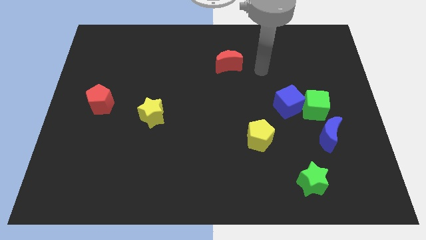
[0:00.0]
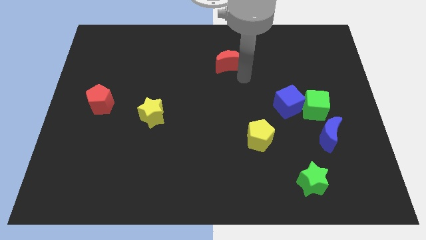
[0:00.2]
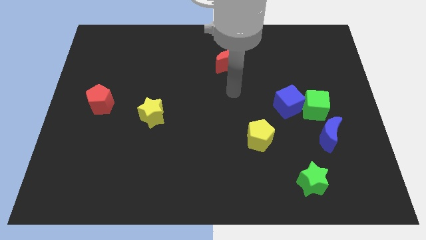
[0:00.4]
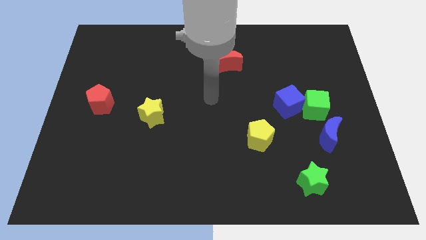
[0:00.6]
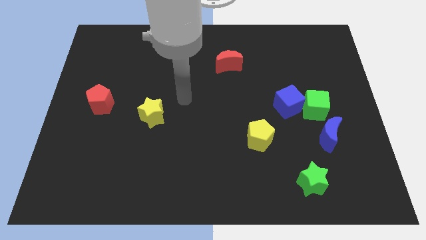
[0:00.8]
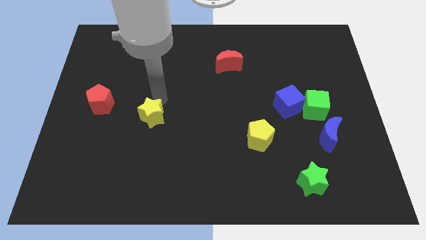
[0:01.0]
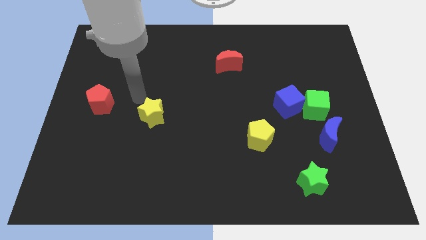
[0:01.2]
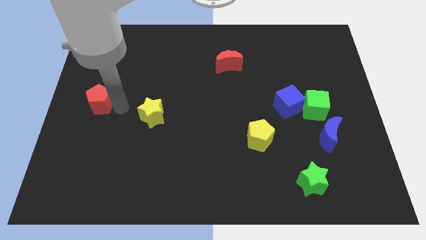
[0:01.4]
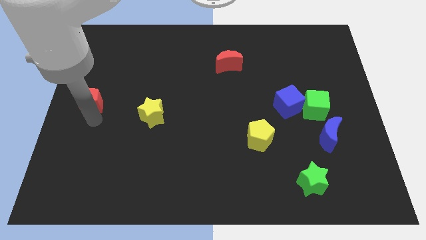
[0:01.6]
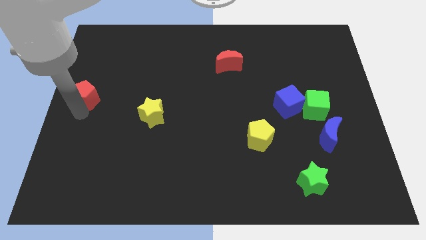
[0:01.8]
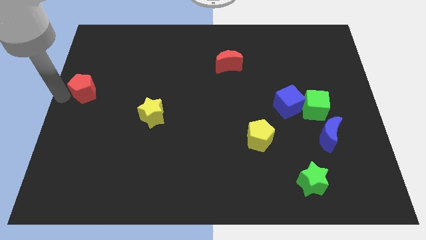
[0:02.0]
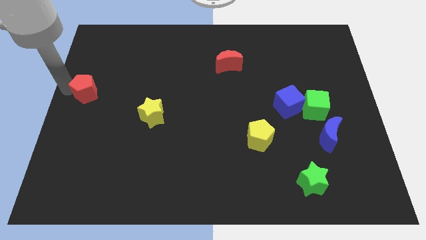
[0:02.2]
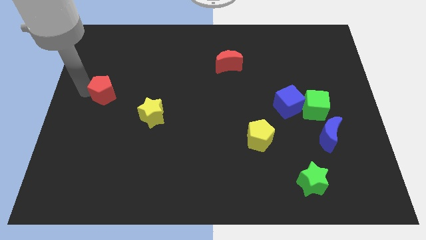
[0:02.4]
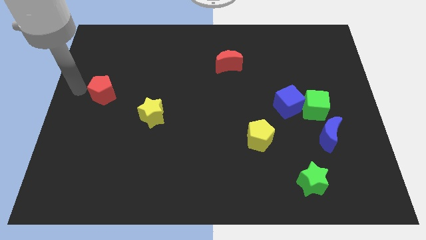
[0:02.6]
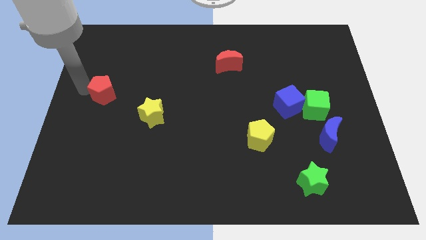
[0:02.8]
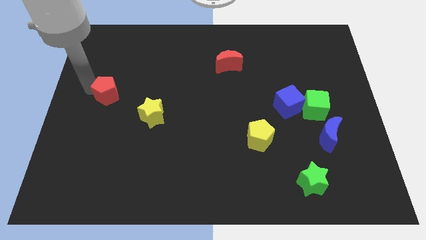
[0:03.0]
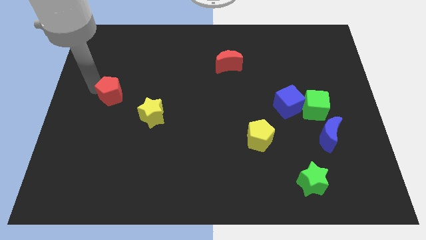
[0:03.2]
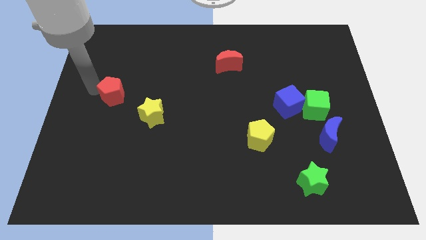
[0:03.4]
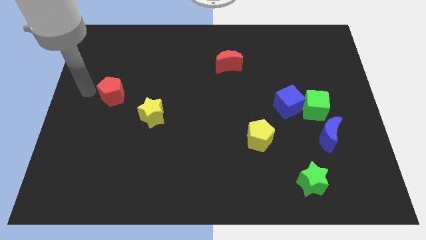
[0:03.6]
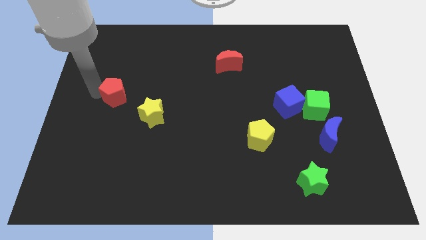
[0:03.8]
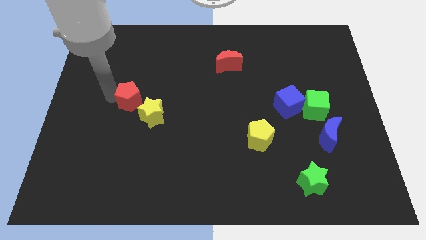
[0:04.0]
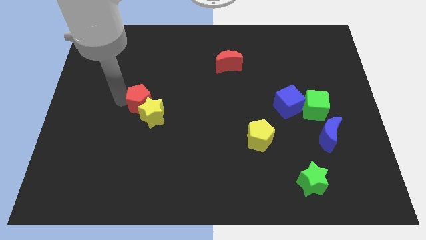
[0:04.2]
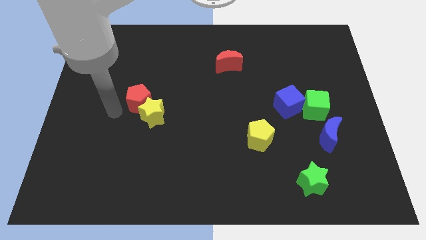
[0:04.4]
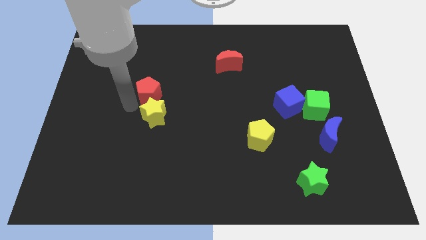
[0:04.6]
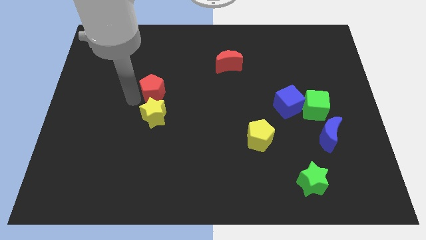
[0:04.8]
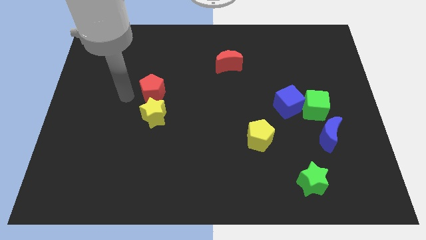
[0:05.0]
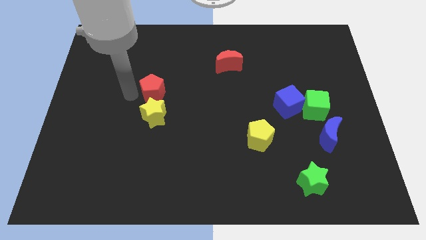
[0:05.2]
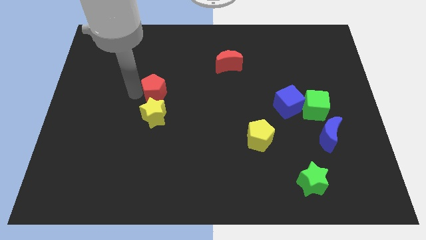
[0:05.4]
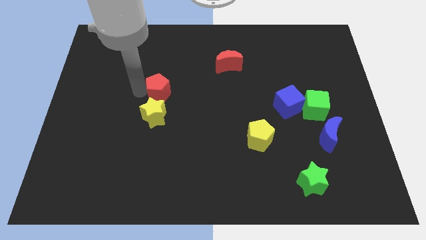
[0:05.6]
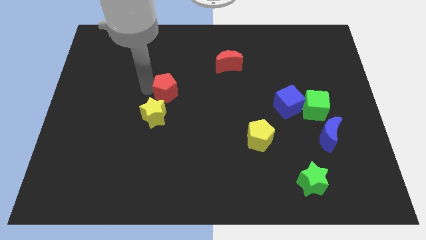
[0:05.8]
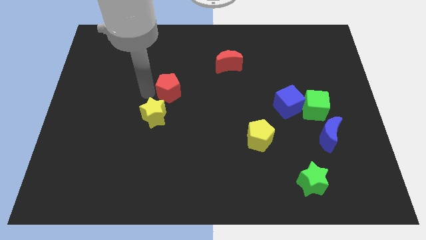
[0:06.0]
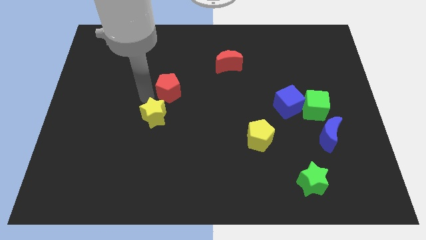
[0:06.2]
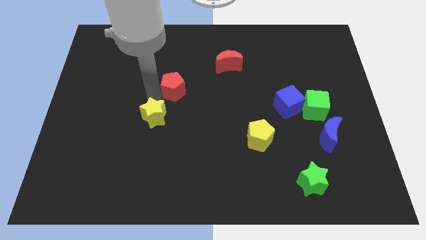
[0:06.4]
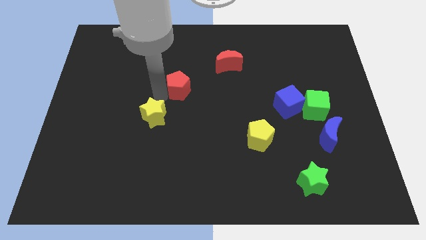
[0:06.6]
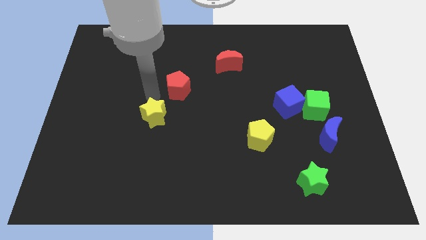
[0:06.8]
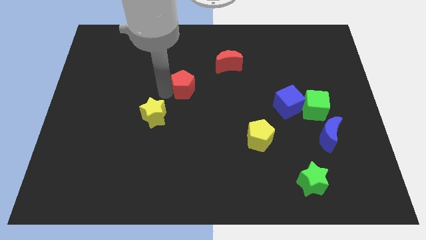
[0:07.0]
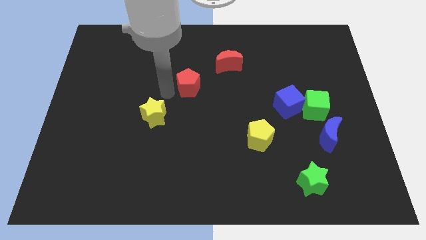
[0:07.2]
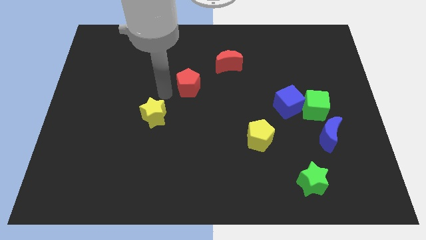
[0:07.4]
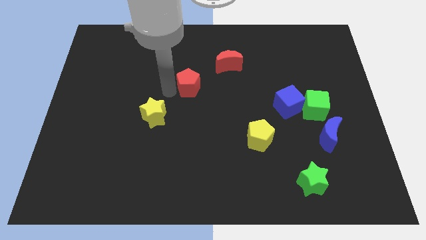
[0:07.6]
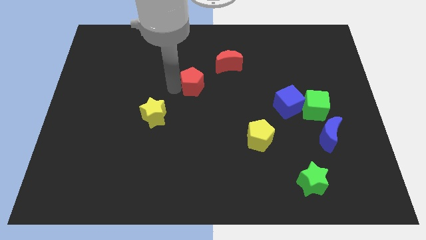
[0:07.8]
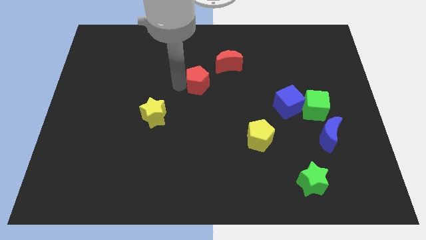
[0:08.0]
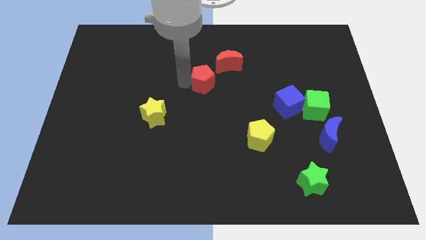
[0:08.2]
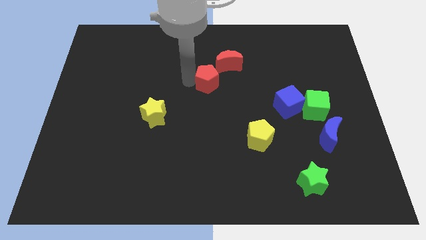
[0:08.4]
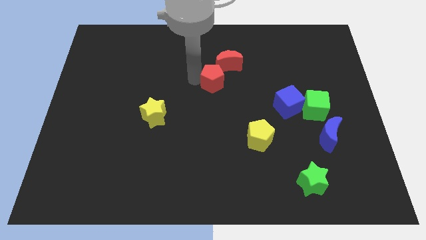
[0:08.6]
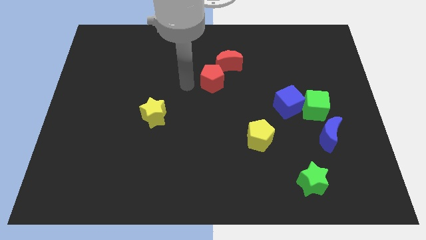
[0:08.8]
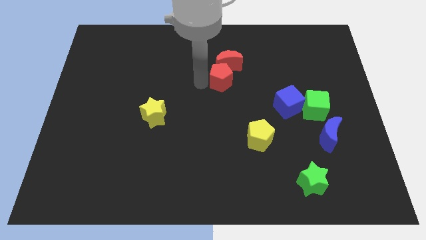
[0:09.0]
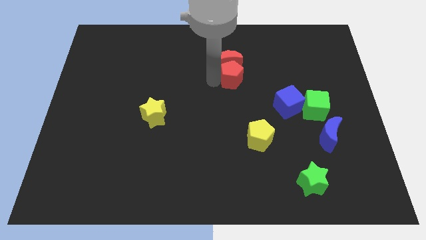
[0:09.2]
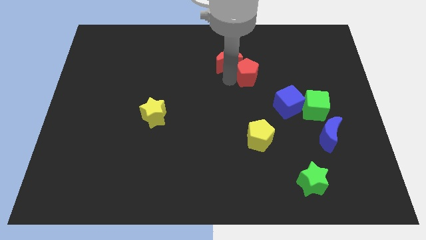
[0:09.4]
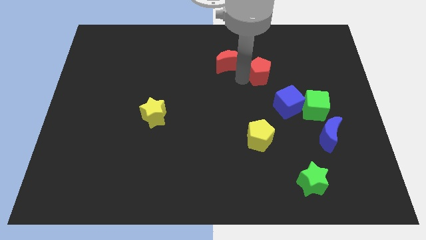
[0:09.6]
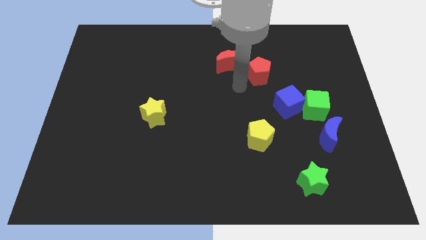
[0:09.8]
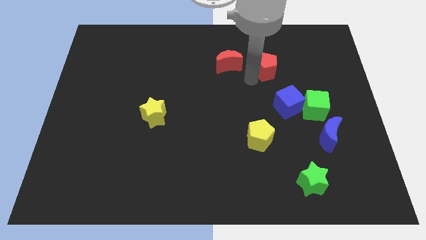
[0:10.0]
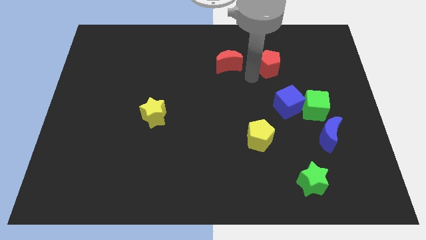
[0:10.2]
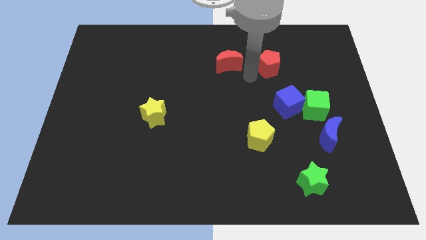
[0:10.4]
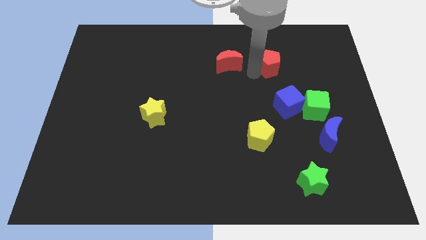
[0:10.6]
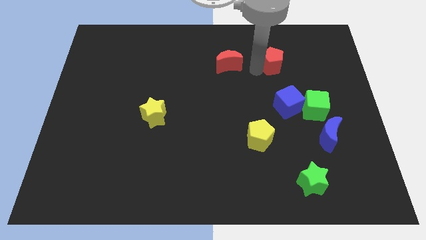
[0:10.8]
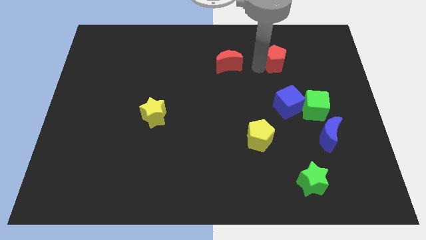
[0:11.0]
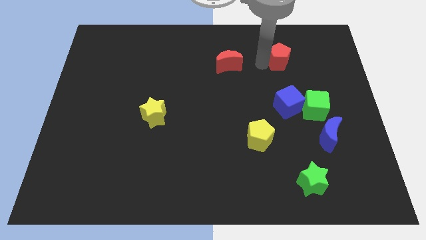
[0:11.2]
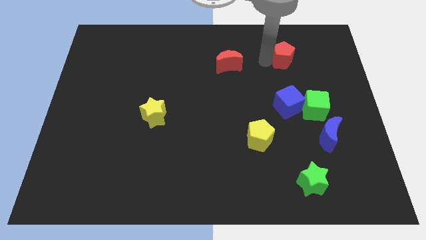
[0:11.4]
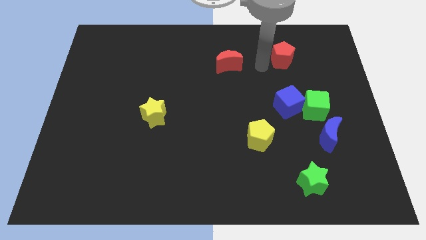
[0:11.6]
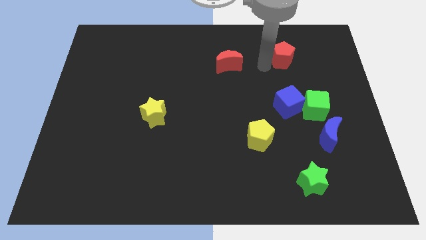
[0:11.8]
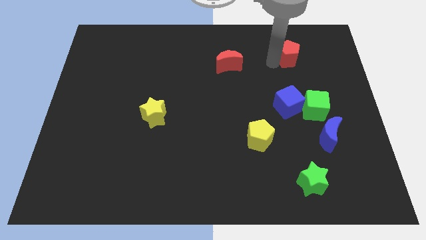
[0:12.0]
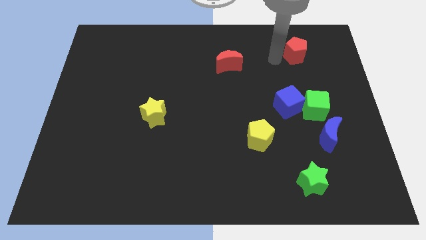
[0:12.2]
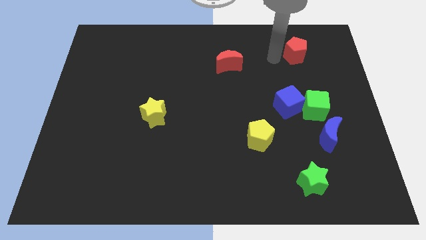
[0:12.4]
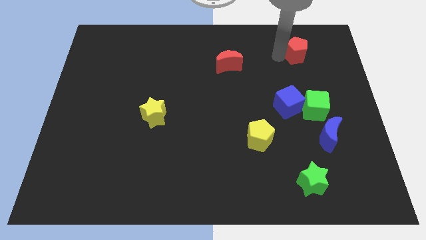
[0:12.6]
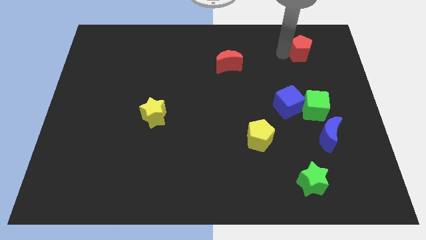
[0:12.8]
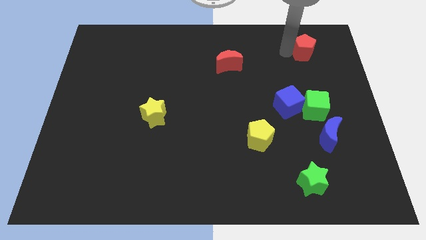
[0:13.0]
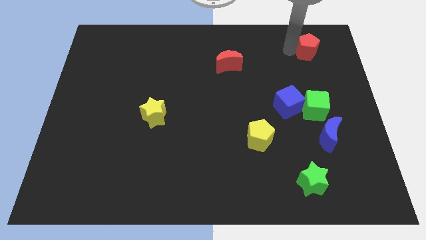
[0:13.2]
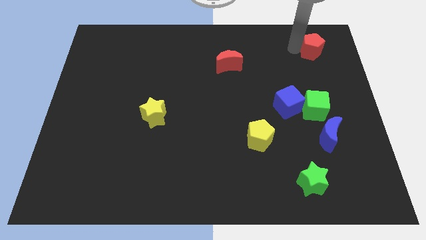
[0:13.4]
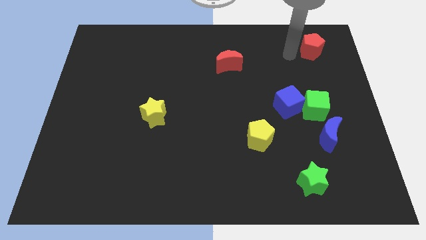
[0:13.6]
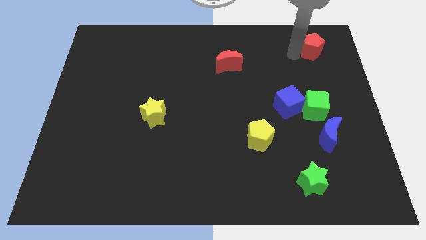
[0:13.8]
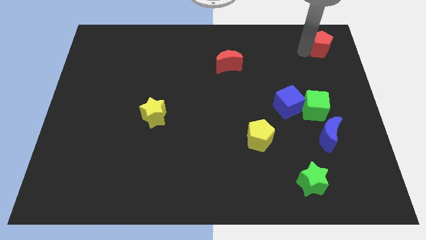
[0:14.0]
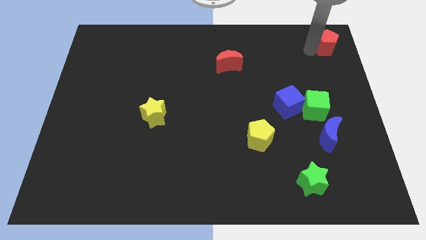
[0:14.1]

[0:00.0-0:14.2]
push the red pentagon to the top right

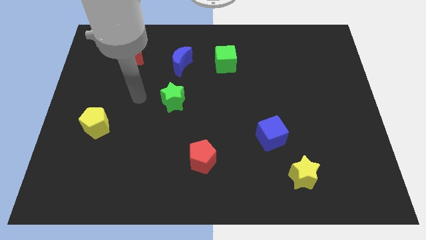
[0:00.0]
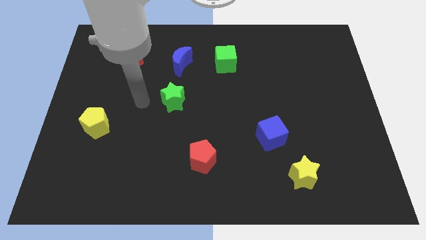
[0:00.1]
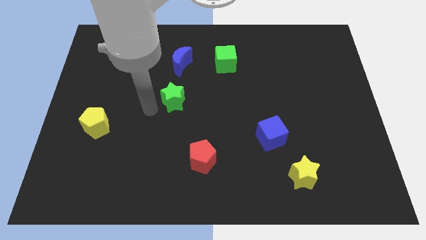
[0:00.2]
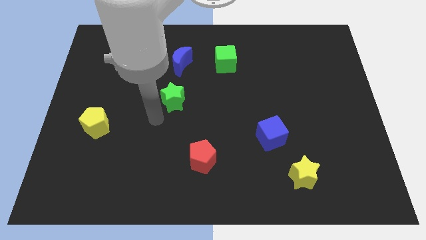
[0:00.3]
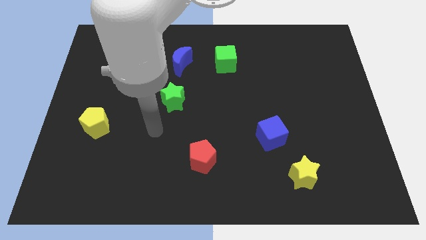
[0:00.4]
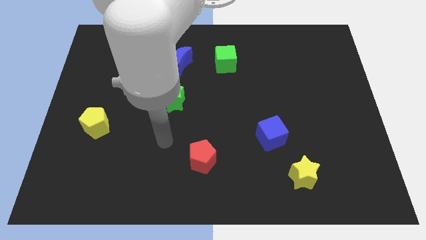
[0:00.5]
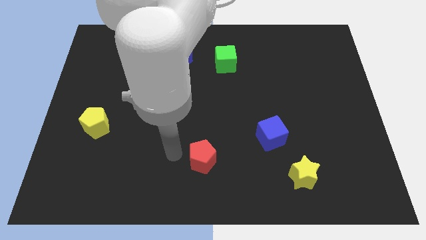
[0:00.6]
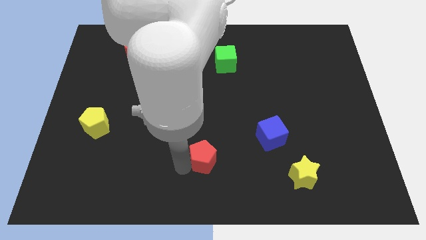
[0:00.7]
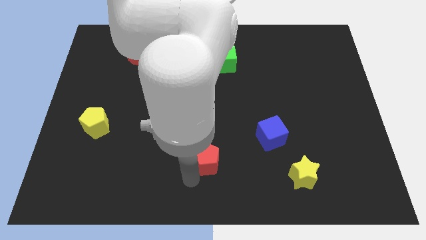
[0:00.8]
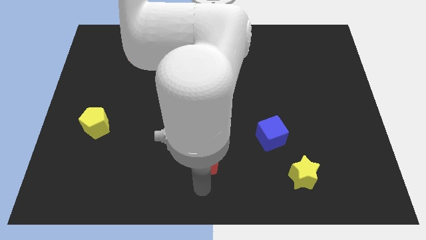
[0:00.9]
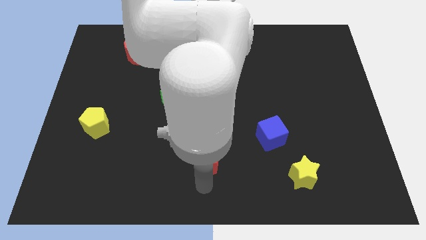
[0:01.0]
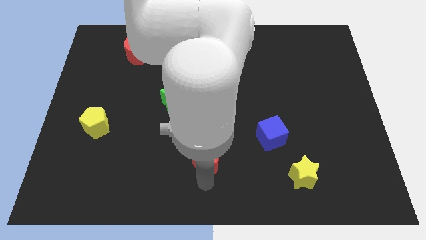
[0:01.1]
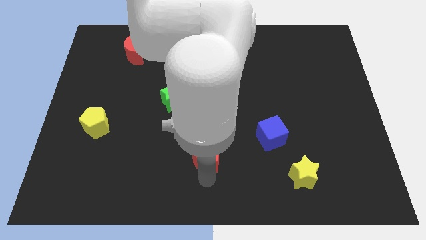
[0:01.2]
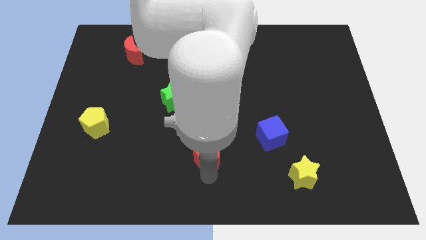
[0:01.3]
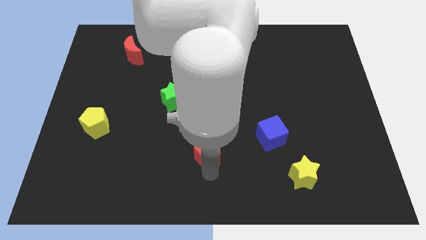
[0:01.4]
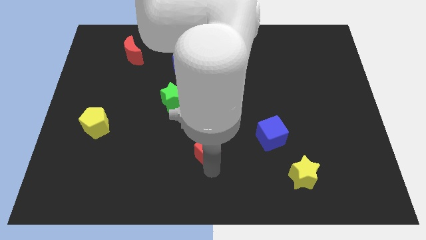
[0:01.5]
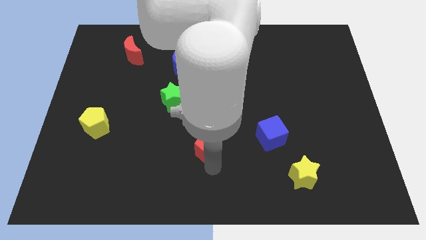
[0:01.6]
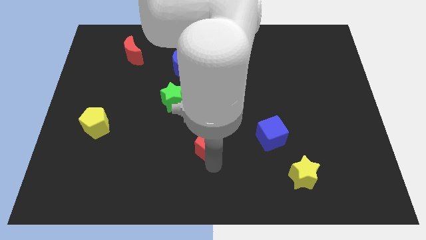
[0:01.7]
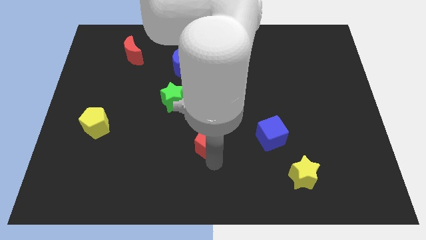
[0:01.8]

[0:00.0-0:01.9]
push the red pentagon to the middle of the board
